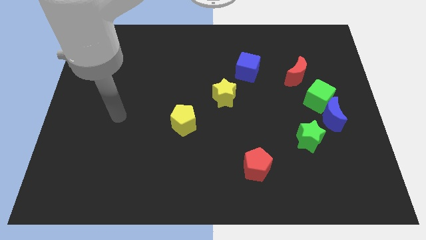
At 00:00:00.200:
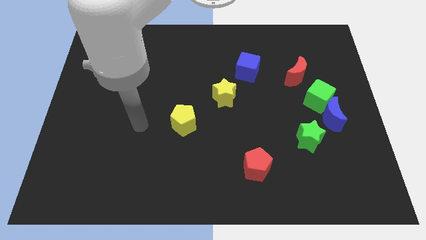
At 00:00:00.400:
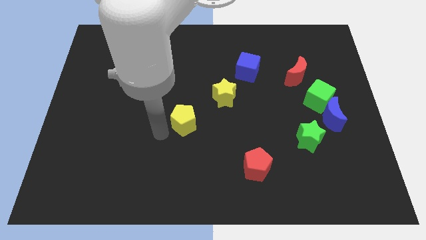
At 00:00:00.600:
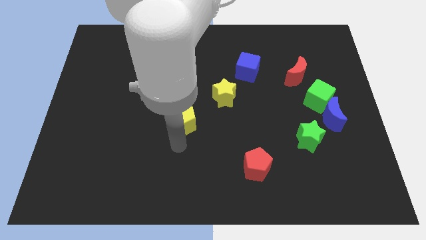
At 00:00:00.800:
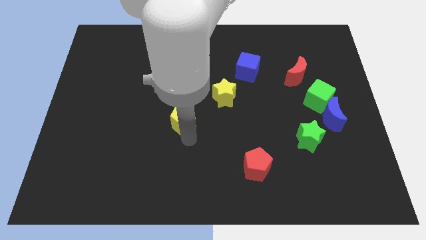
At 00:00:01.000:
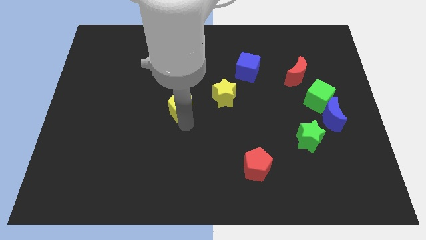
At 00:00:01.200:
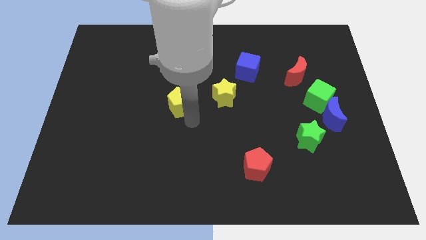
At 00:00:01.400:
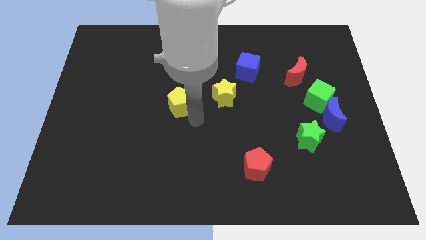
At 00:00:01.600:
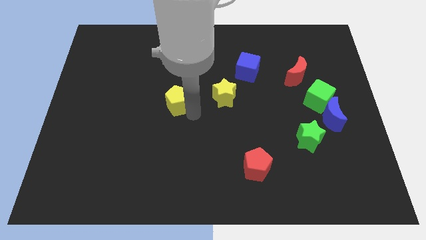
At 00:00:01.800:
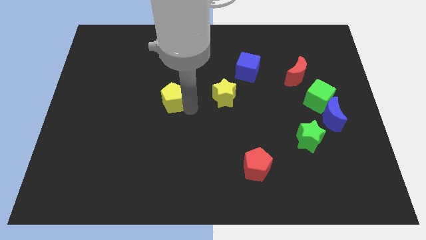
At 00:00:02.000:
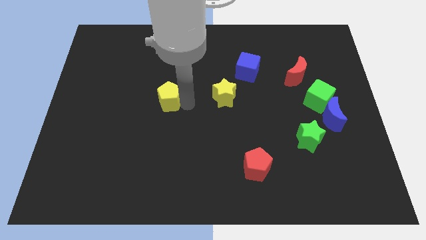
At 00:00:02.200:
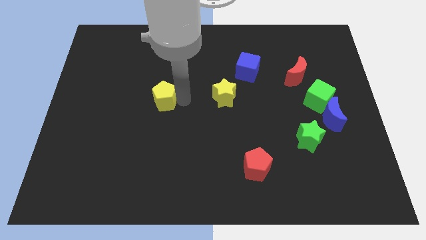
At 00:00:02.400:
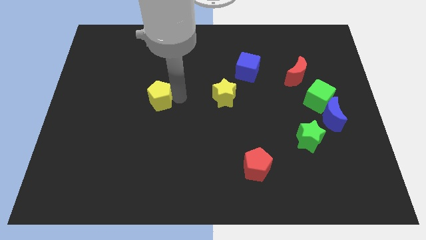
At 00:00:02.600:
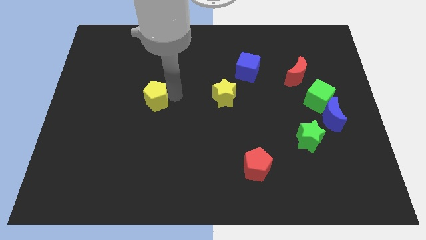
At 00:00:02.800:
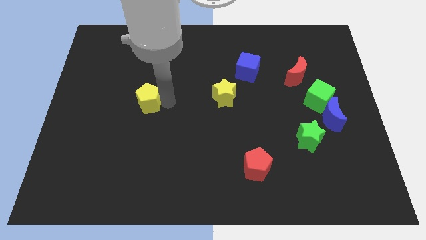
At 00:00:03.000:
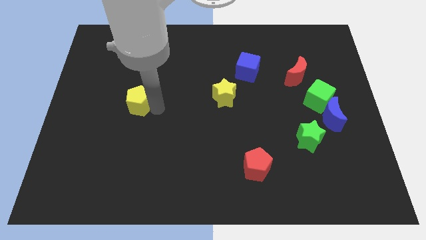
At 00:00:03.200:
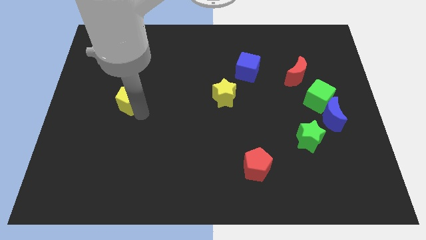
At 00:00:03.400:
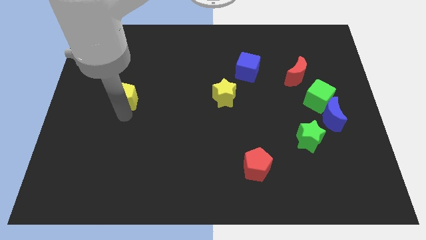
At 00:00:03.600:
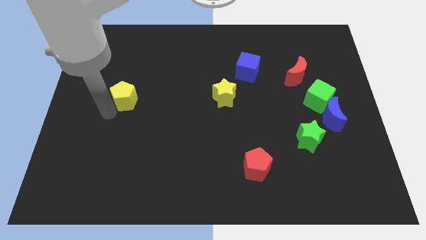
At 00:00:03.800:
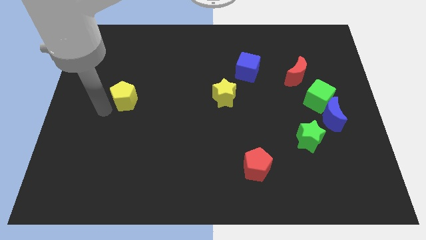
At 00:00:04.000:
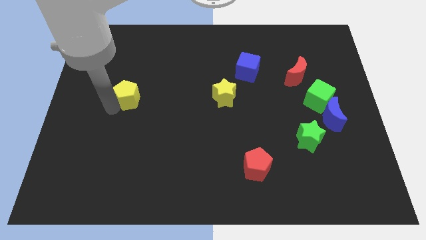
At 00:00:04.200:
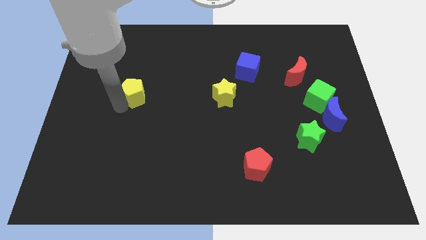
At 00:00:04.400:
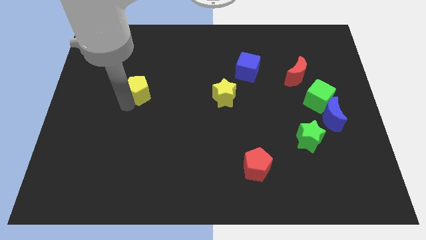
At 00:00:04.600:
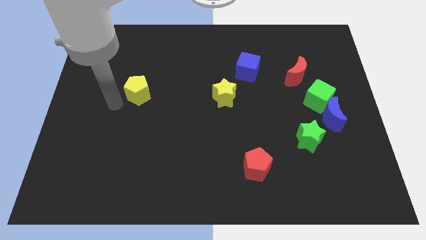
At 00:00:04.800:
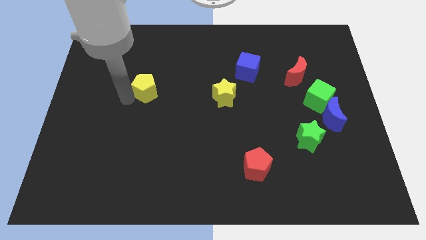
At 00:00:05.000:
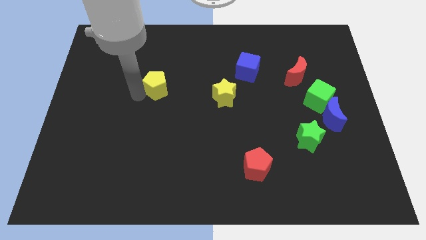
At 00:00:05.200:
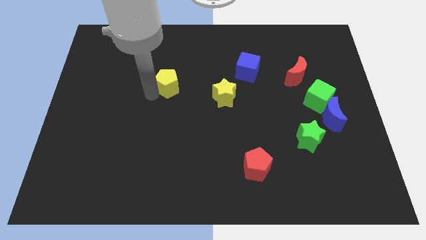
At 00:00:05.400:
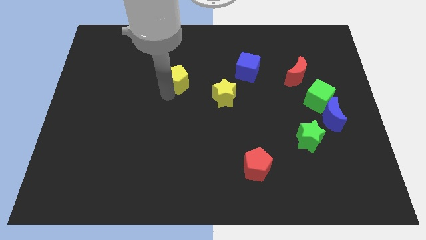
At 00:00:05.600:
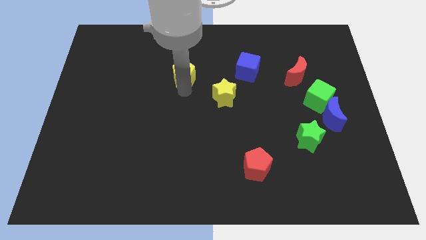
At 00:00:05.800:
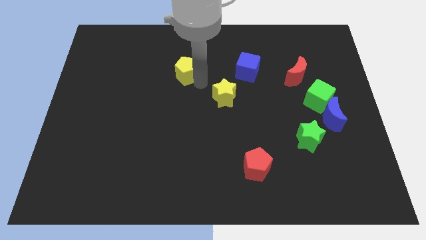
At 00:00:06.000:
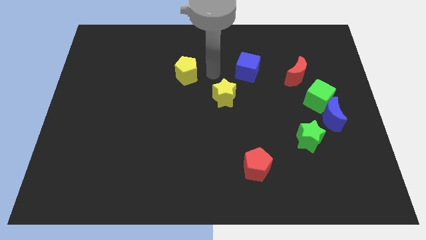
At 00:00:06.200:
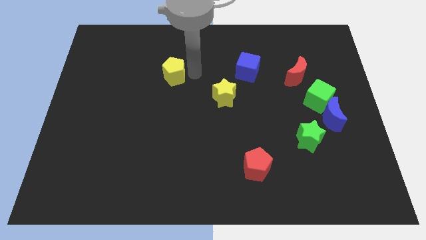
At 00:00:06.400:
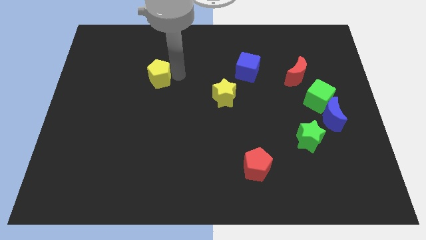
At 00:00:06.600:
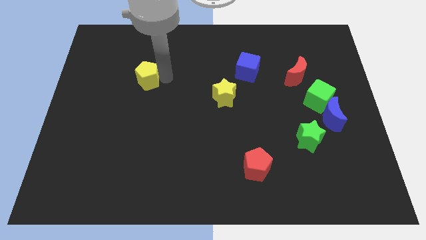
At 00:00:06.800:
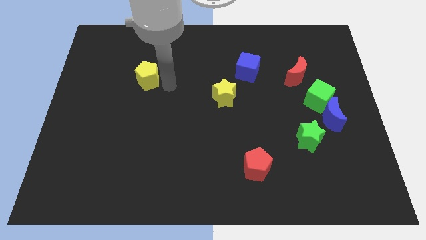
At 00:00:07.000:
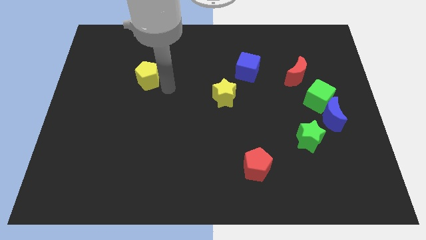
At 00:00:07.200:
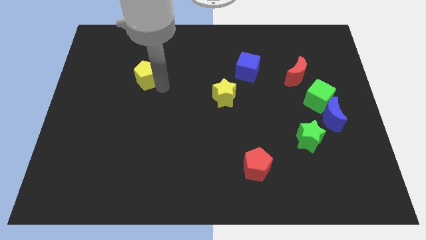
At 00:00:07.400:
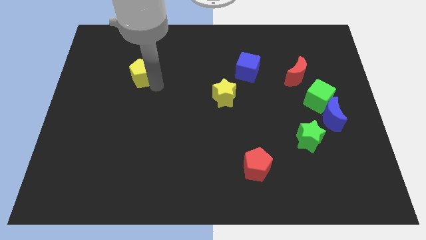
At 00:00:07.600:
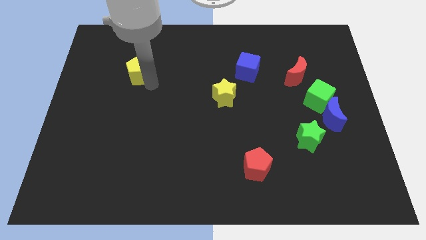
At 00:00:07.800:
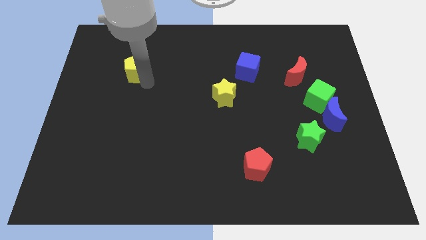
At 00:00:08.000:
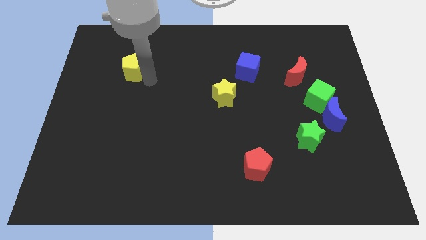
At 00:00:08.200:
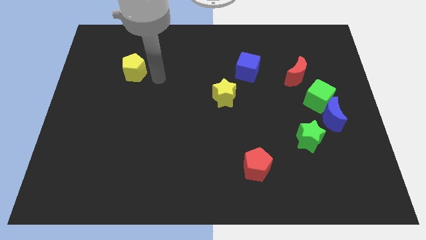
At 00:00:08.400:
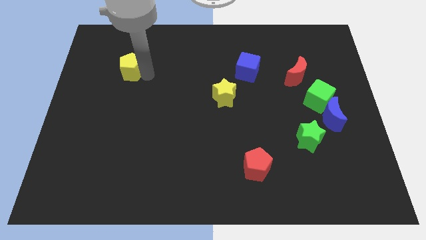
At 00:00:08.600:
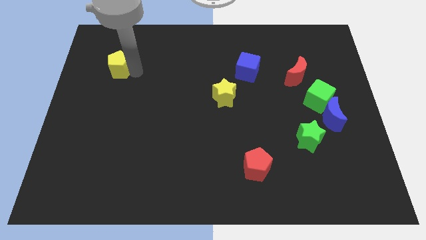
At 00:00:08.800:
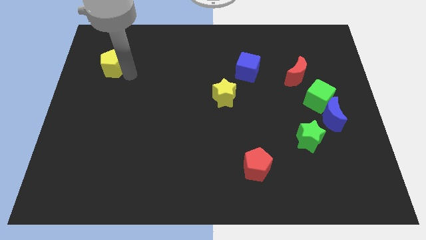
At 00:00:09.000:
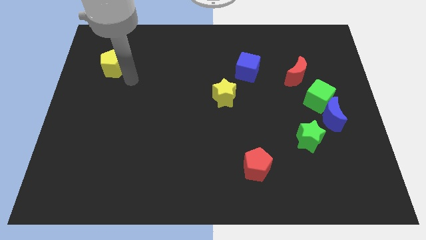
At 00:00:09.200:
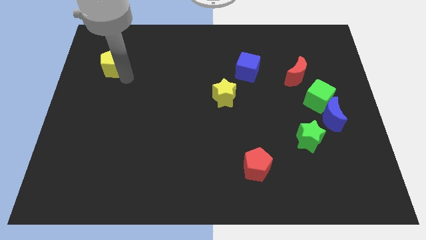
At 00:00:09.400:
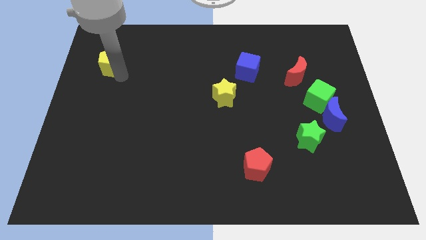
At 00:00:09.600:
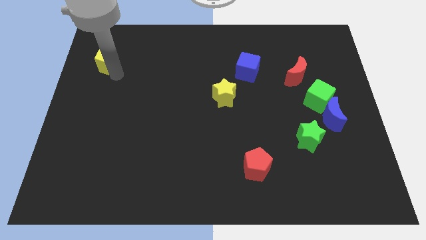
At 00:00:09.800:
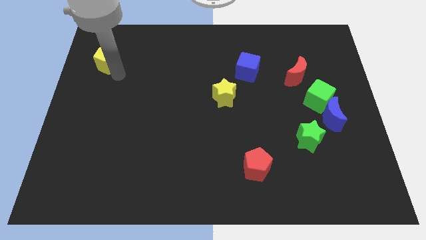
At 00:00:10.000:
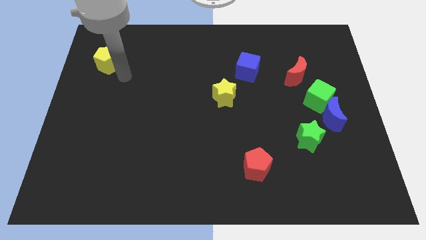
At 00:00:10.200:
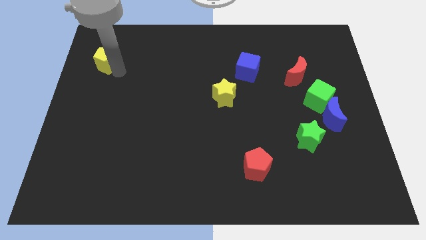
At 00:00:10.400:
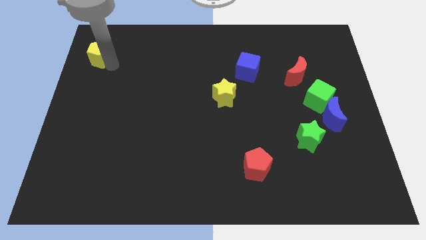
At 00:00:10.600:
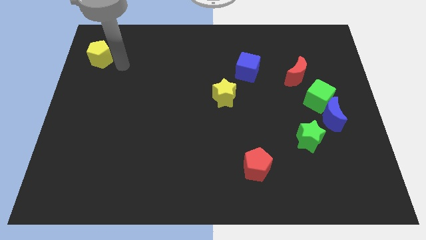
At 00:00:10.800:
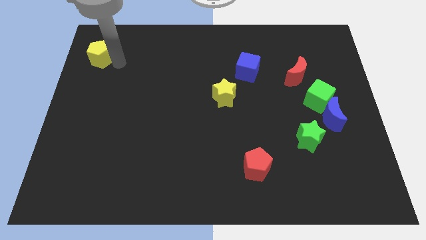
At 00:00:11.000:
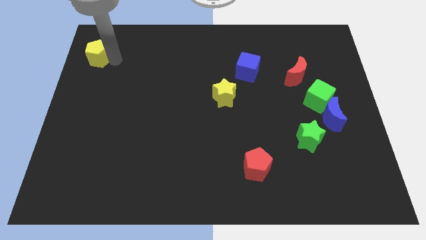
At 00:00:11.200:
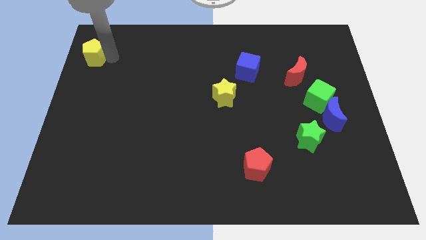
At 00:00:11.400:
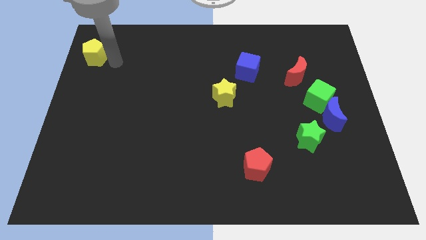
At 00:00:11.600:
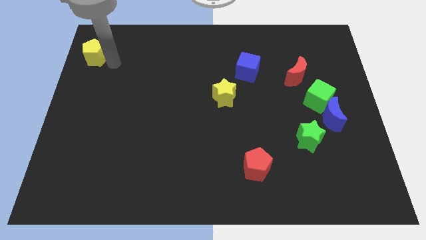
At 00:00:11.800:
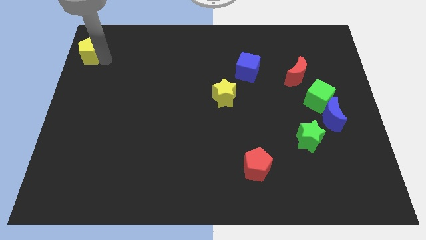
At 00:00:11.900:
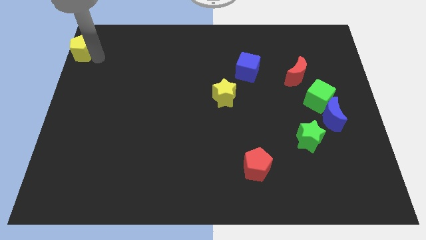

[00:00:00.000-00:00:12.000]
push the yellow pentagon to the top left

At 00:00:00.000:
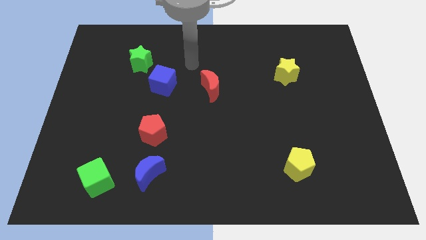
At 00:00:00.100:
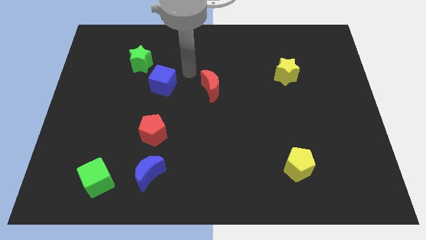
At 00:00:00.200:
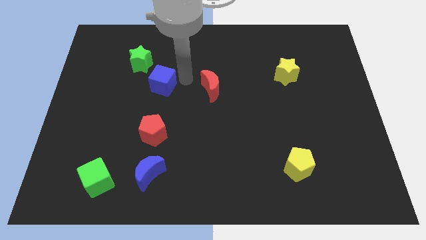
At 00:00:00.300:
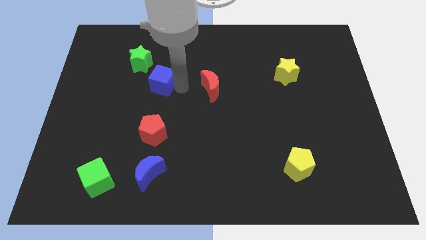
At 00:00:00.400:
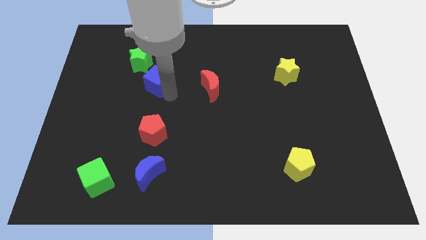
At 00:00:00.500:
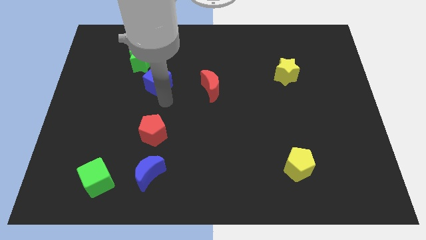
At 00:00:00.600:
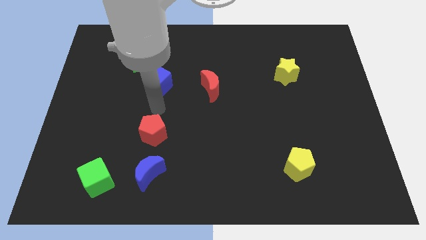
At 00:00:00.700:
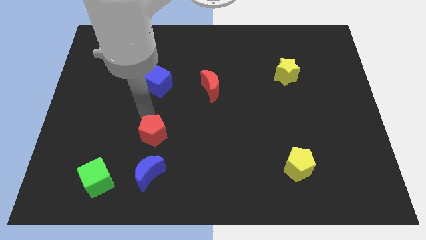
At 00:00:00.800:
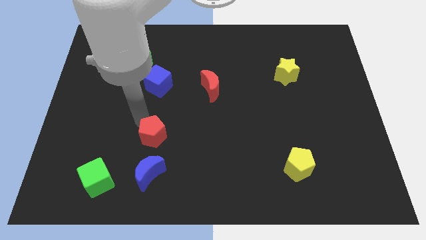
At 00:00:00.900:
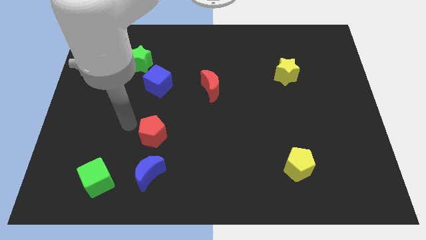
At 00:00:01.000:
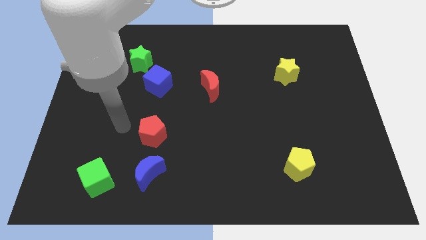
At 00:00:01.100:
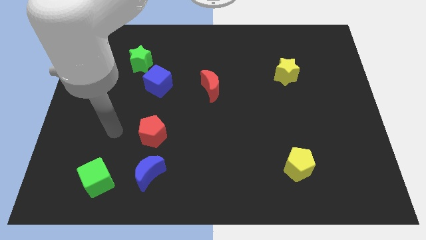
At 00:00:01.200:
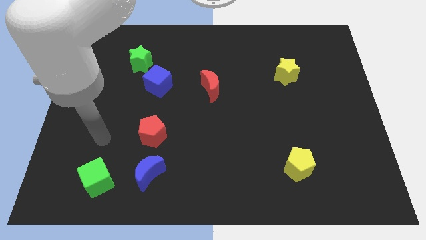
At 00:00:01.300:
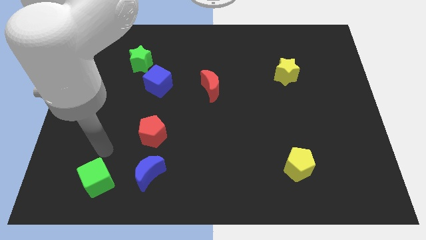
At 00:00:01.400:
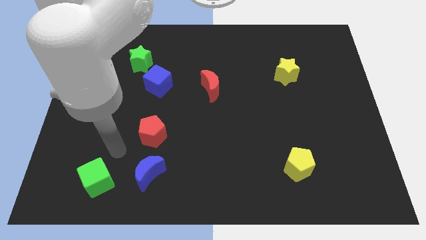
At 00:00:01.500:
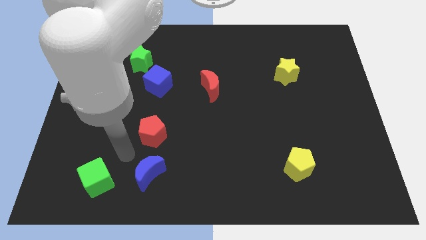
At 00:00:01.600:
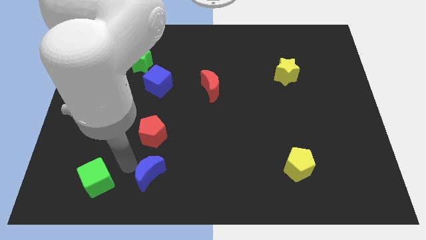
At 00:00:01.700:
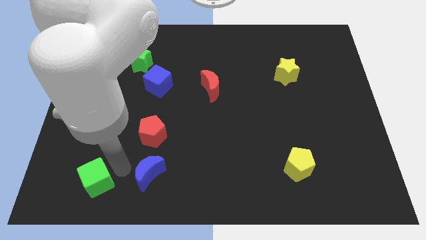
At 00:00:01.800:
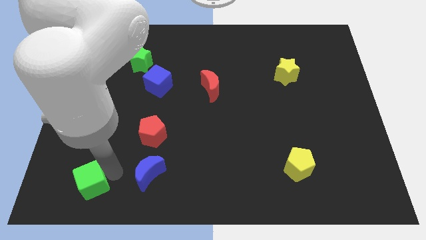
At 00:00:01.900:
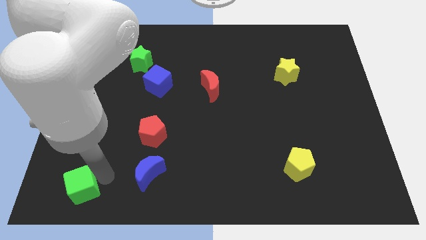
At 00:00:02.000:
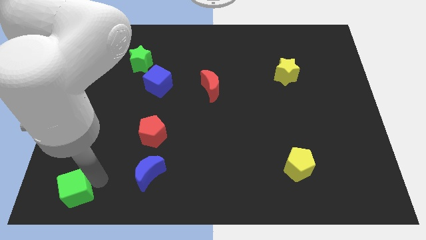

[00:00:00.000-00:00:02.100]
put the green cube to the bottom left
